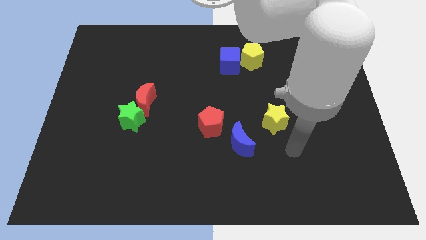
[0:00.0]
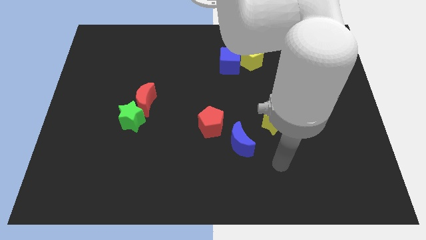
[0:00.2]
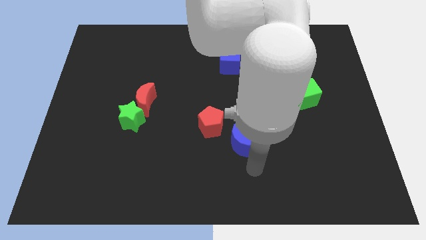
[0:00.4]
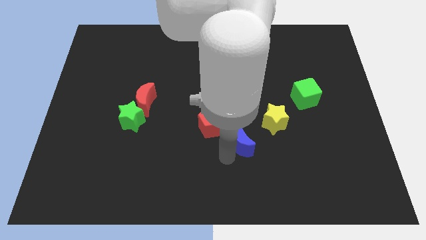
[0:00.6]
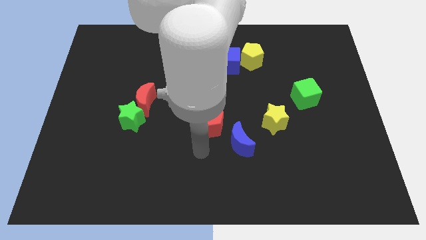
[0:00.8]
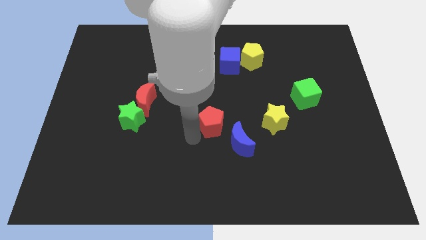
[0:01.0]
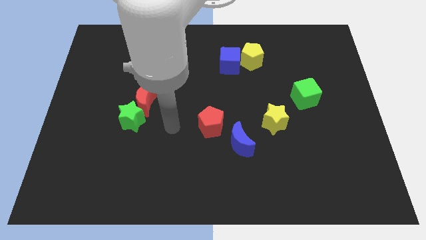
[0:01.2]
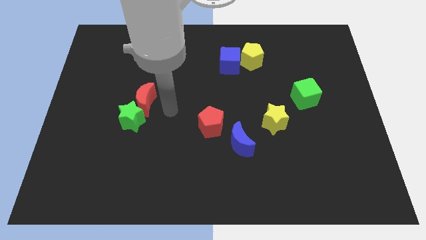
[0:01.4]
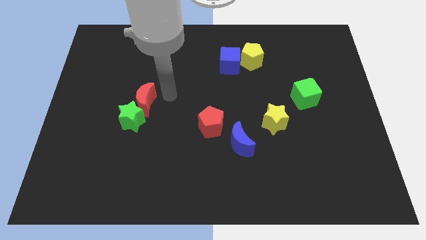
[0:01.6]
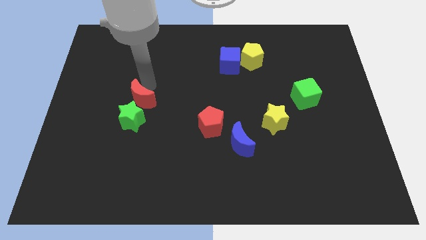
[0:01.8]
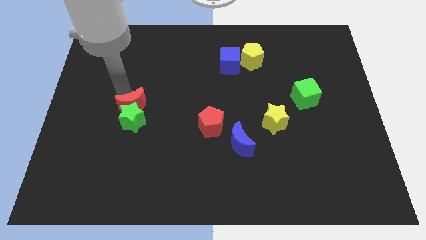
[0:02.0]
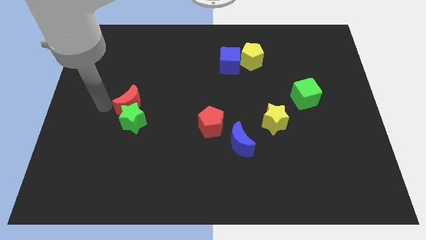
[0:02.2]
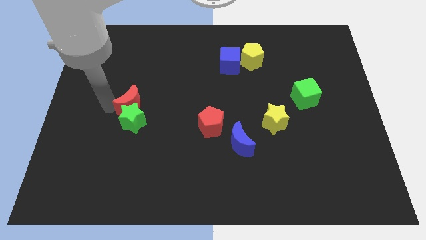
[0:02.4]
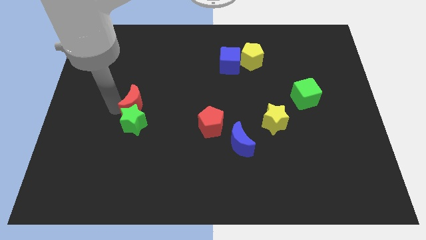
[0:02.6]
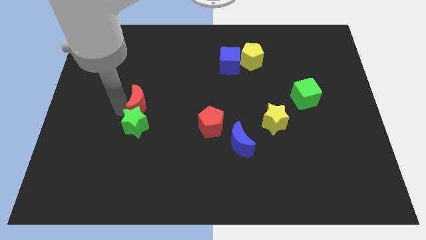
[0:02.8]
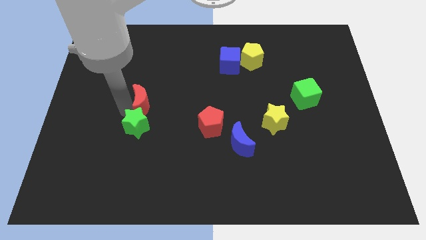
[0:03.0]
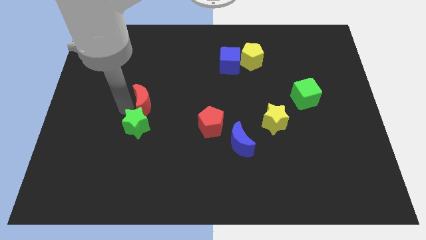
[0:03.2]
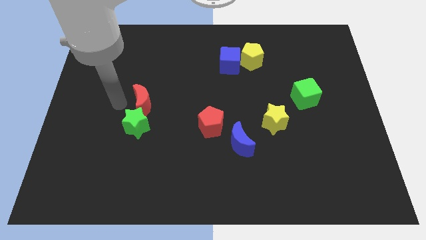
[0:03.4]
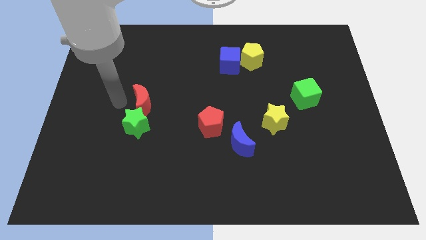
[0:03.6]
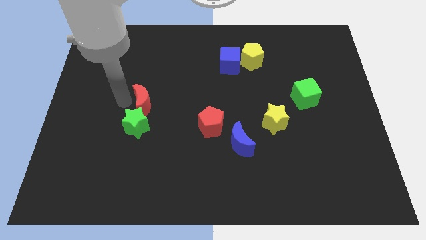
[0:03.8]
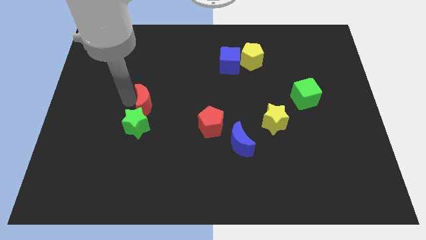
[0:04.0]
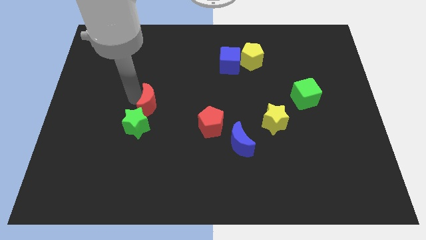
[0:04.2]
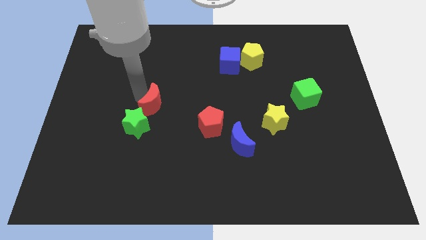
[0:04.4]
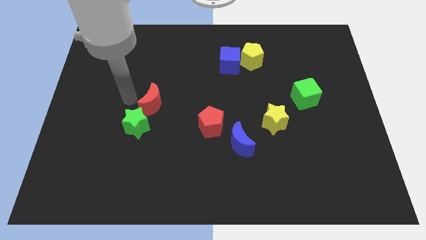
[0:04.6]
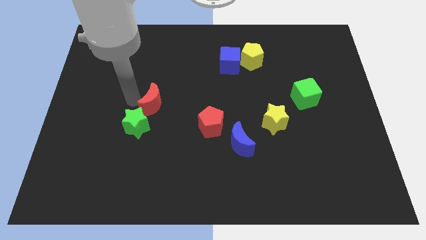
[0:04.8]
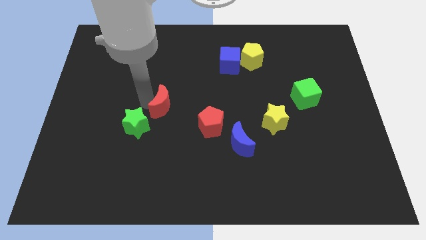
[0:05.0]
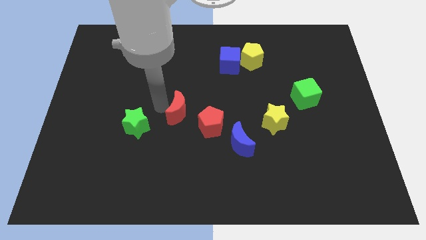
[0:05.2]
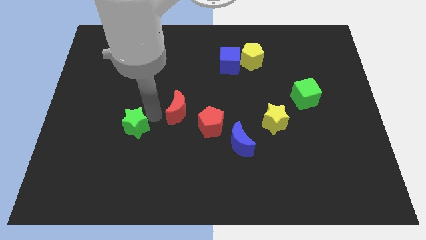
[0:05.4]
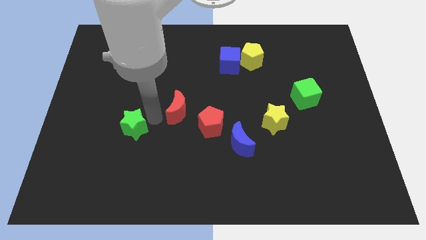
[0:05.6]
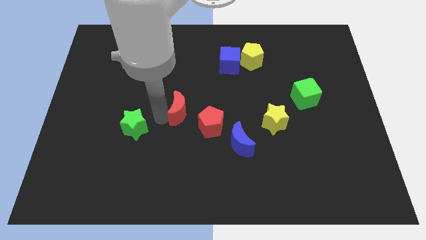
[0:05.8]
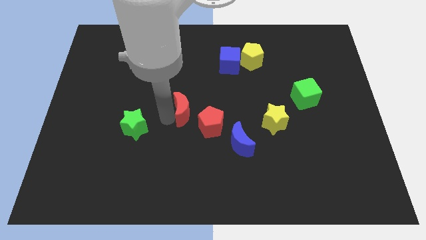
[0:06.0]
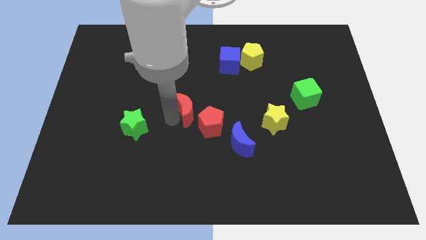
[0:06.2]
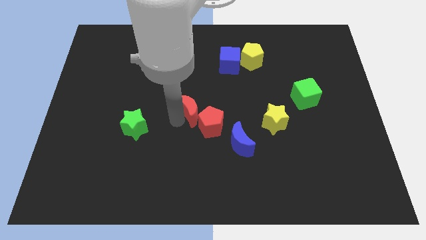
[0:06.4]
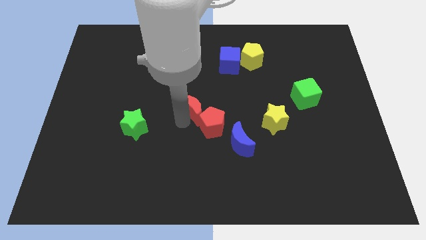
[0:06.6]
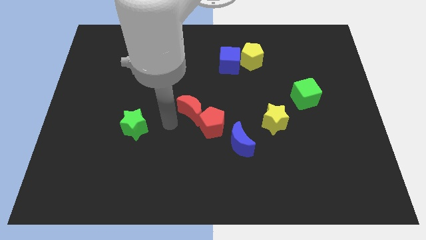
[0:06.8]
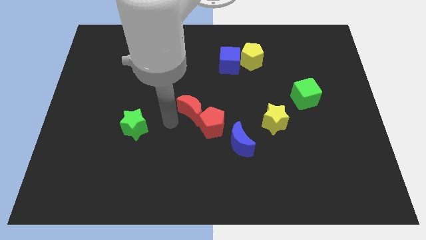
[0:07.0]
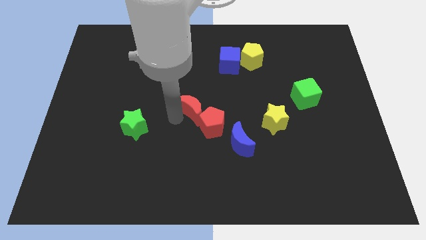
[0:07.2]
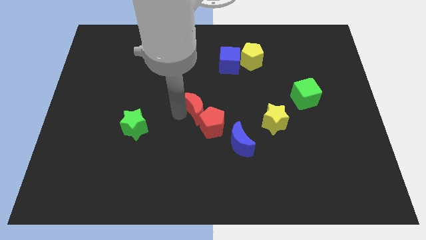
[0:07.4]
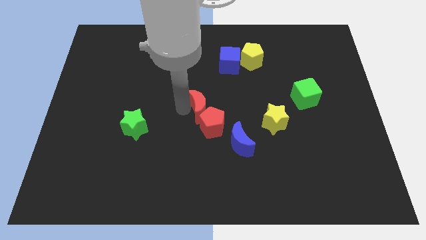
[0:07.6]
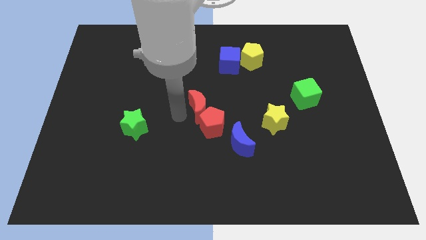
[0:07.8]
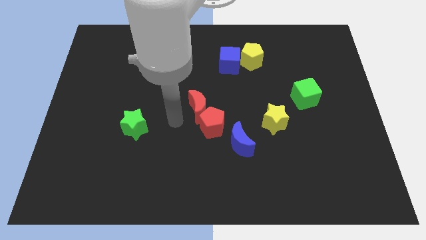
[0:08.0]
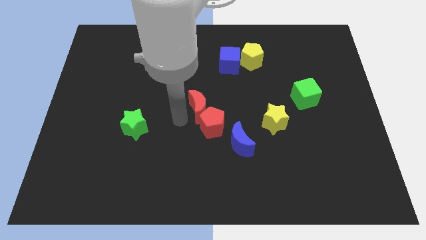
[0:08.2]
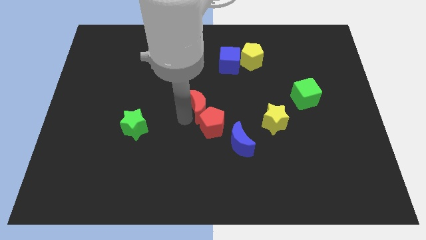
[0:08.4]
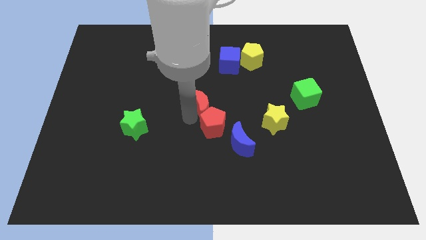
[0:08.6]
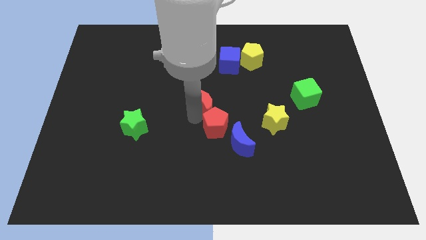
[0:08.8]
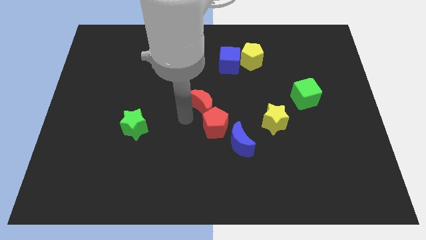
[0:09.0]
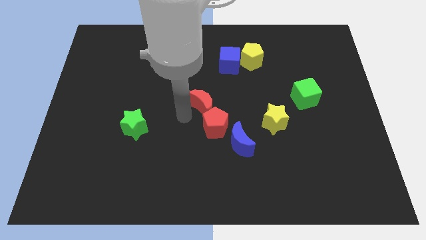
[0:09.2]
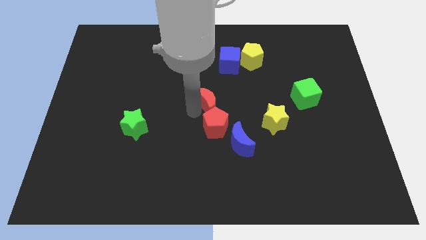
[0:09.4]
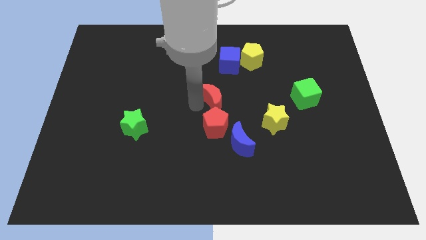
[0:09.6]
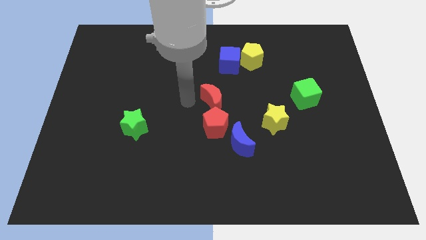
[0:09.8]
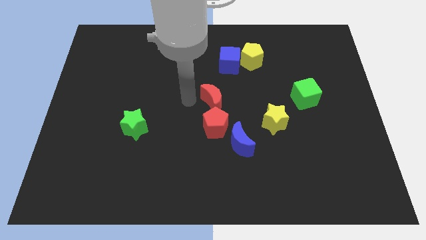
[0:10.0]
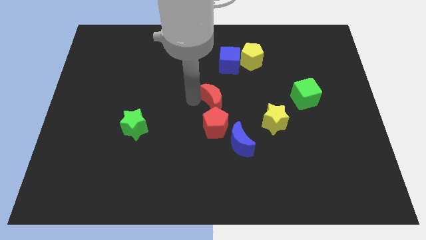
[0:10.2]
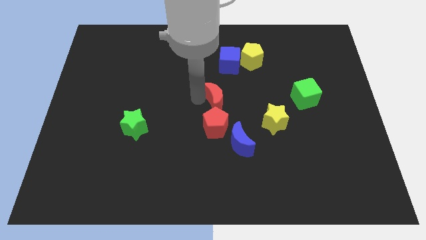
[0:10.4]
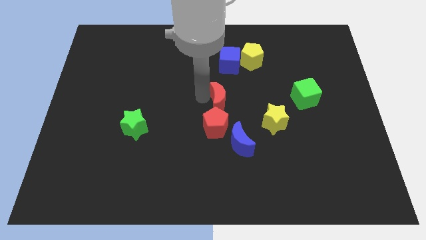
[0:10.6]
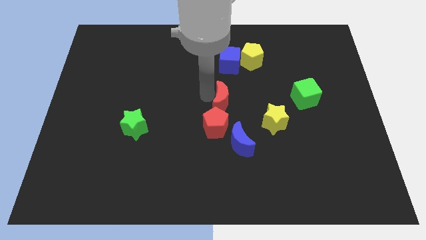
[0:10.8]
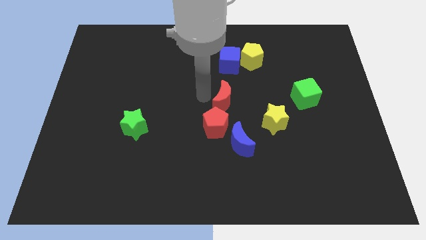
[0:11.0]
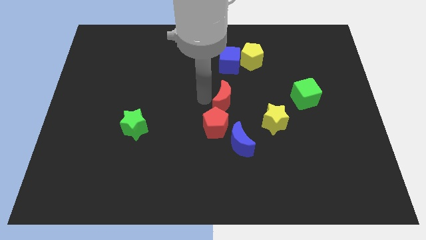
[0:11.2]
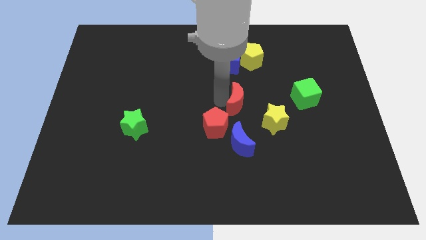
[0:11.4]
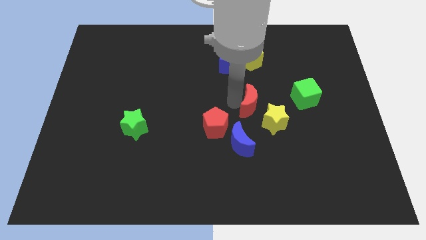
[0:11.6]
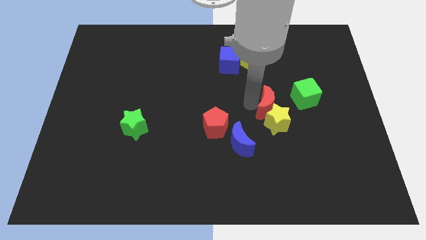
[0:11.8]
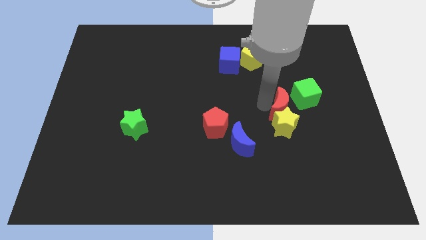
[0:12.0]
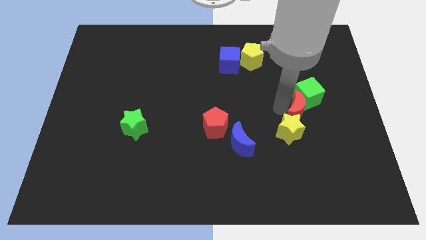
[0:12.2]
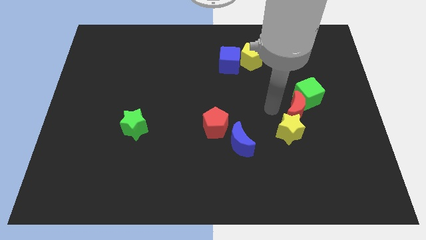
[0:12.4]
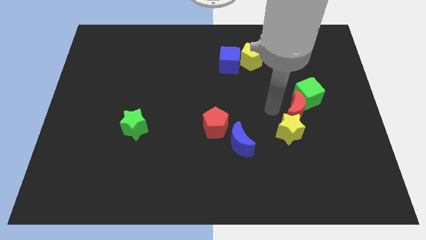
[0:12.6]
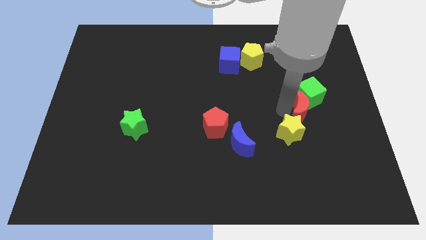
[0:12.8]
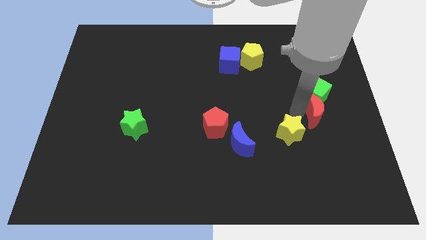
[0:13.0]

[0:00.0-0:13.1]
move the red moon to the bottom right side of the green cube
